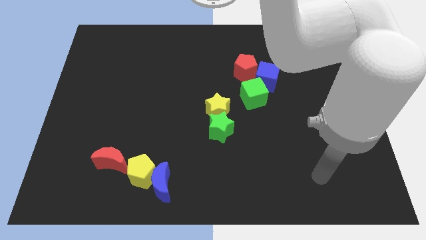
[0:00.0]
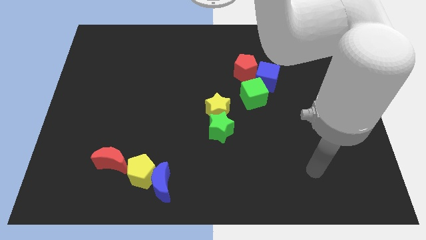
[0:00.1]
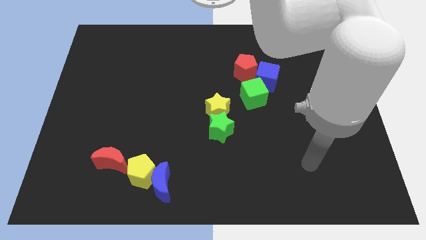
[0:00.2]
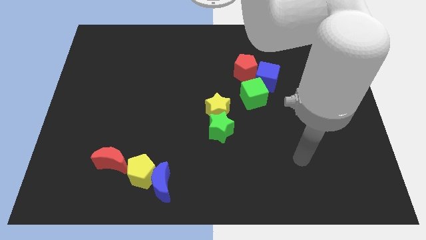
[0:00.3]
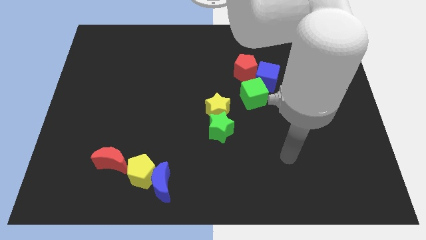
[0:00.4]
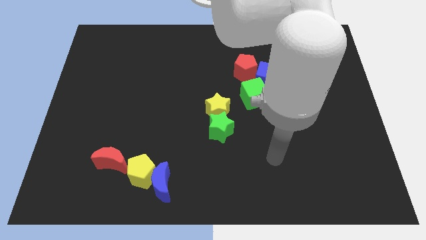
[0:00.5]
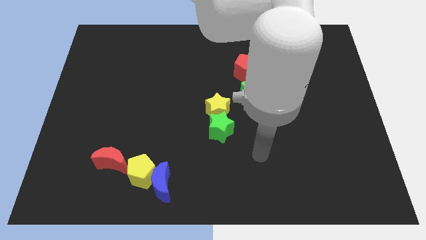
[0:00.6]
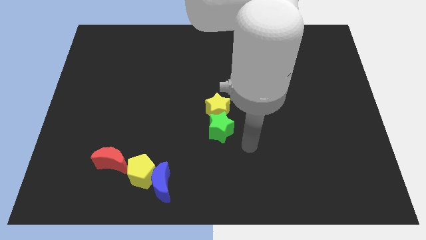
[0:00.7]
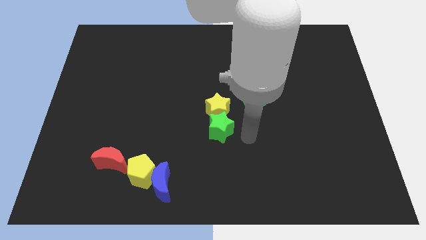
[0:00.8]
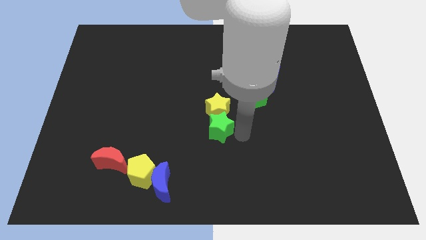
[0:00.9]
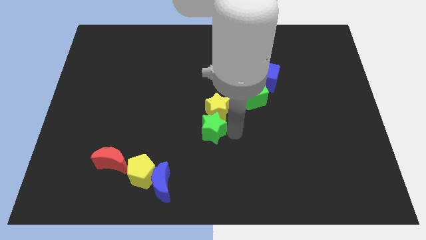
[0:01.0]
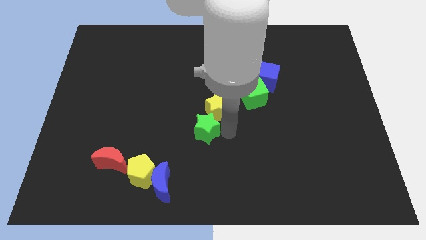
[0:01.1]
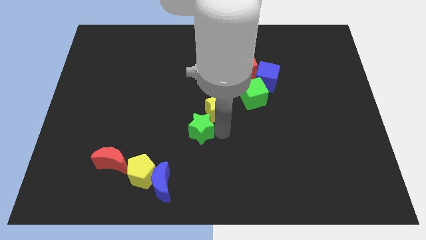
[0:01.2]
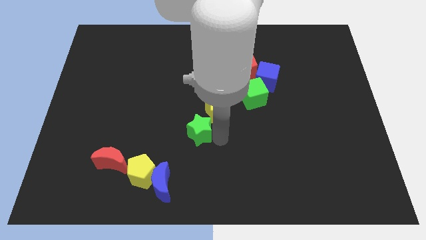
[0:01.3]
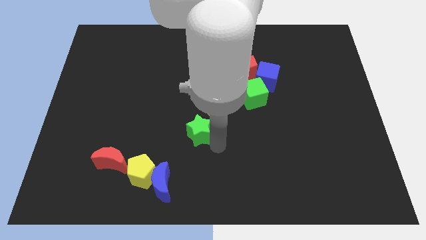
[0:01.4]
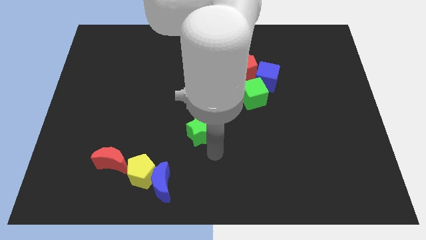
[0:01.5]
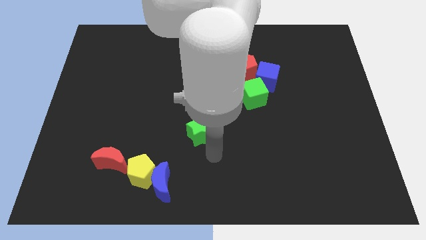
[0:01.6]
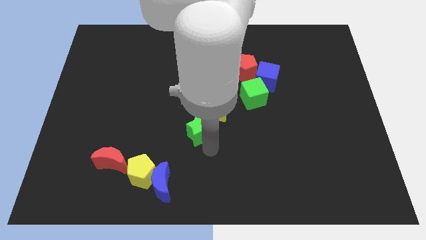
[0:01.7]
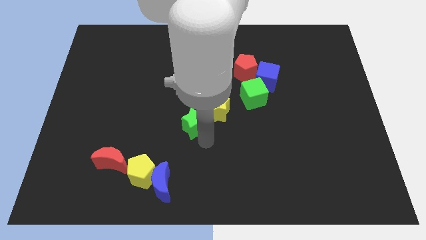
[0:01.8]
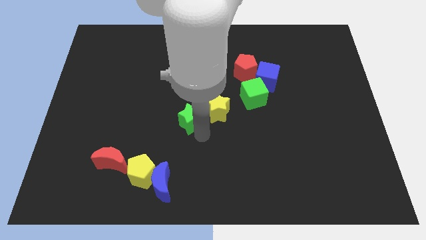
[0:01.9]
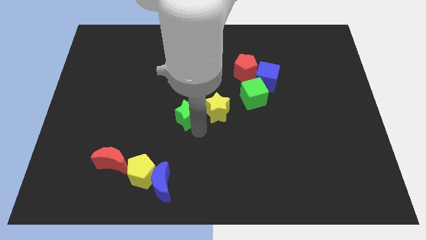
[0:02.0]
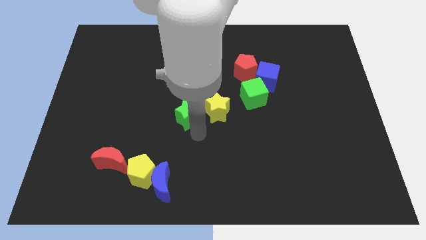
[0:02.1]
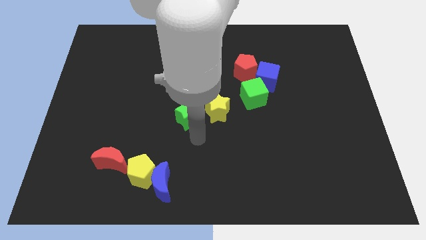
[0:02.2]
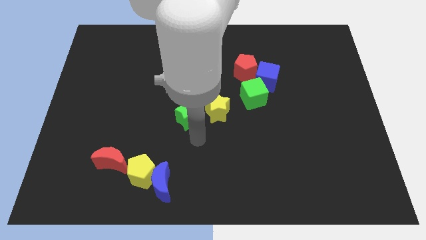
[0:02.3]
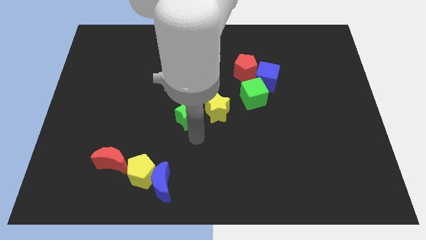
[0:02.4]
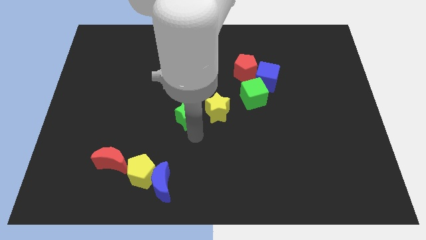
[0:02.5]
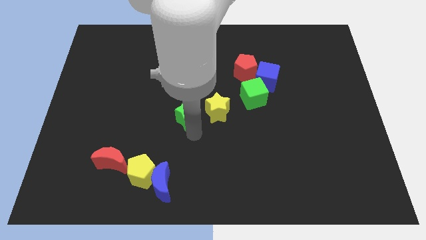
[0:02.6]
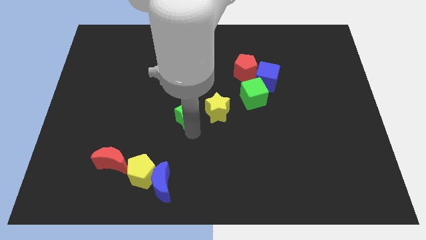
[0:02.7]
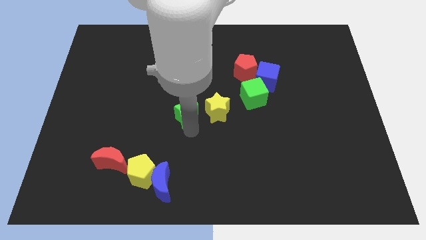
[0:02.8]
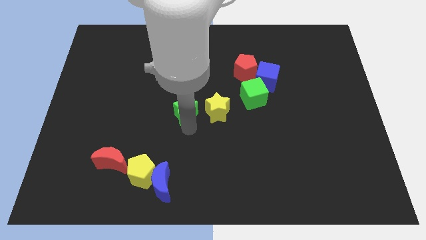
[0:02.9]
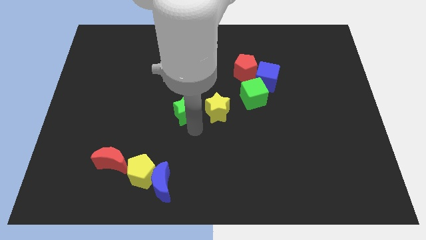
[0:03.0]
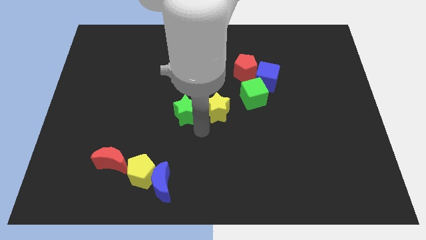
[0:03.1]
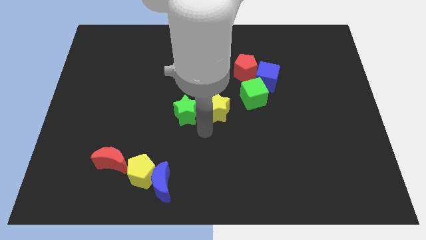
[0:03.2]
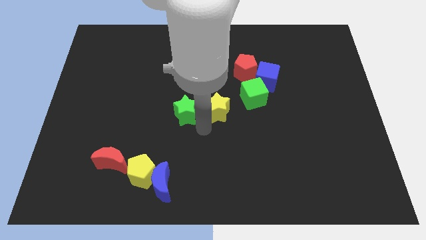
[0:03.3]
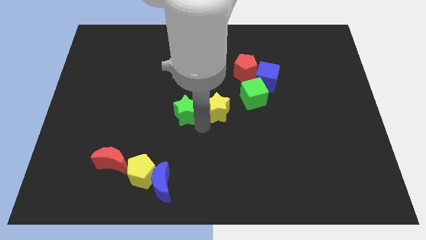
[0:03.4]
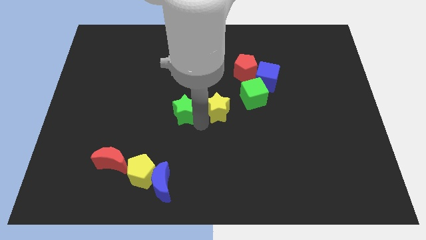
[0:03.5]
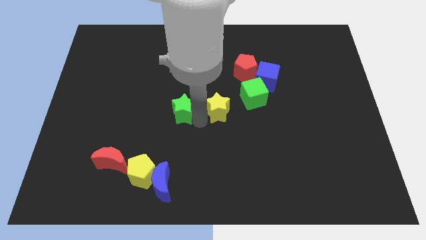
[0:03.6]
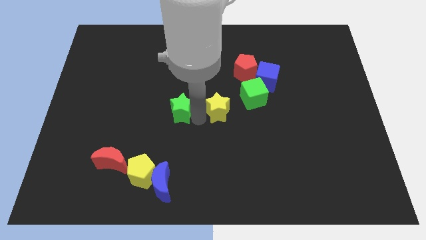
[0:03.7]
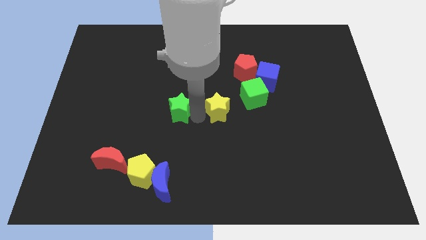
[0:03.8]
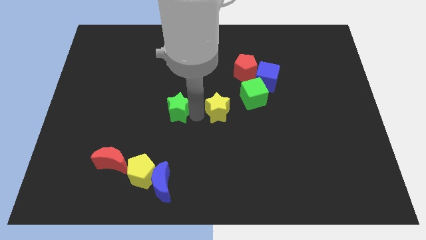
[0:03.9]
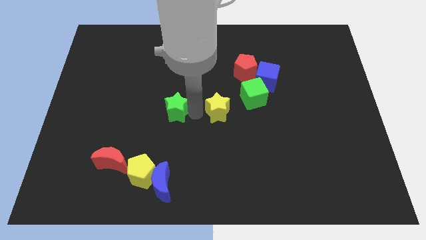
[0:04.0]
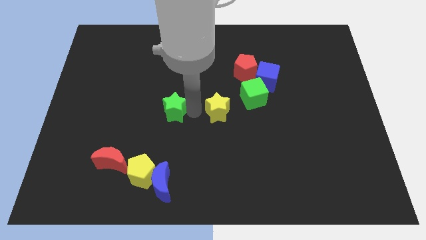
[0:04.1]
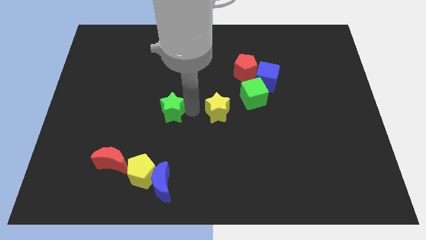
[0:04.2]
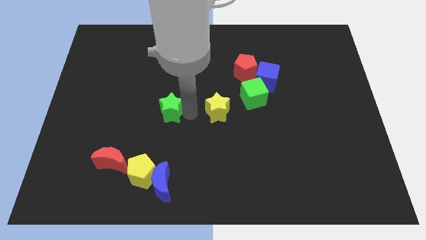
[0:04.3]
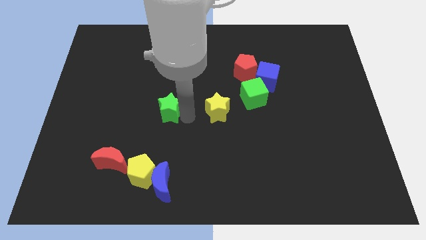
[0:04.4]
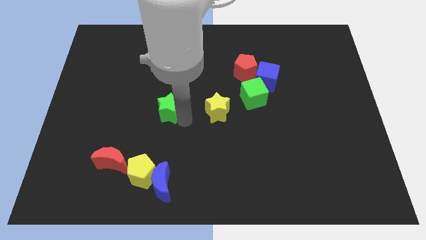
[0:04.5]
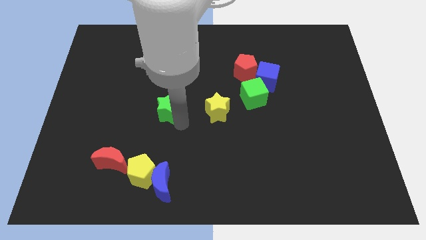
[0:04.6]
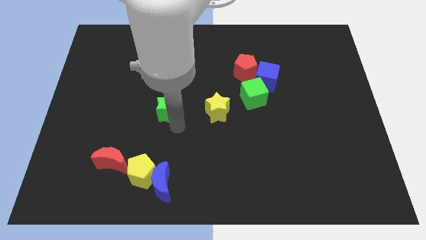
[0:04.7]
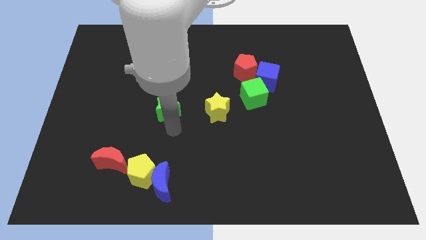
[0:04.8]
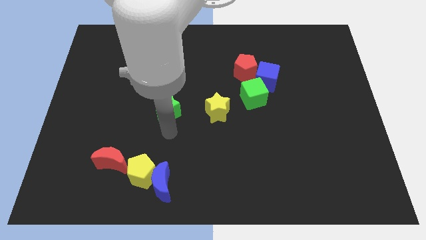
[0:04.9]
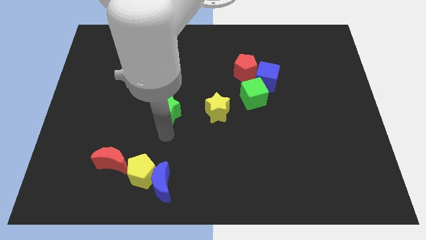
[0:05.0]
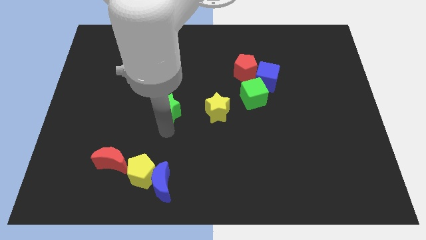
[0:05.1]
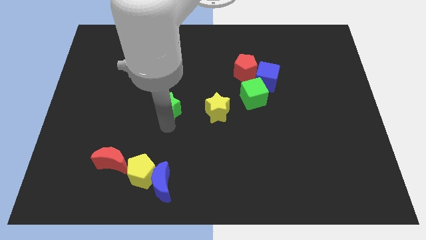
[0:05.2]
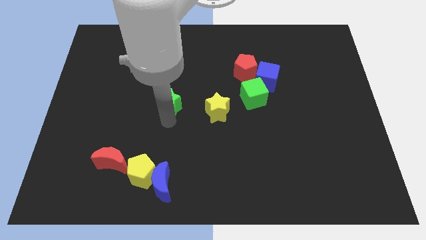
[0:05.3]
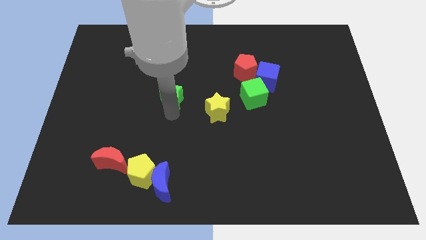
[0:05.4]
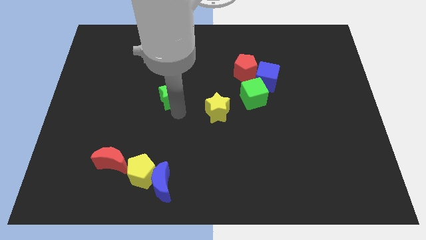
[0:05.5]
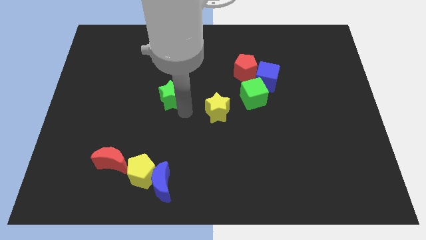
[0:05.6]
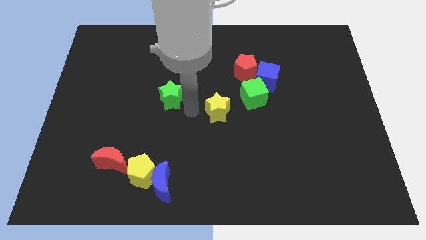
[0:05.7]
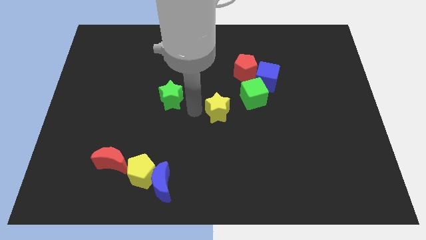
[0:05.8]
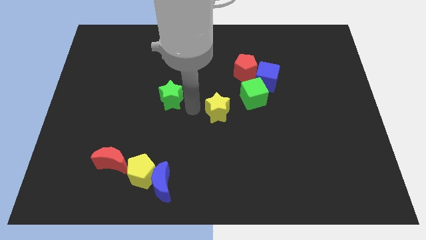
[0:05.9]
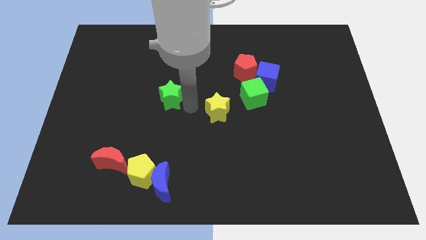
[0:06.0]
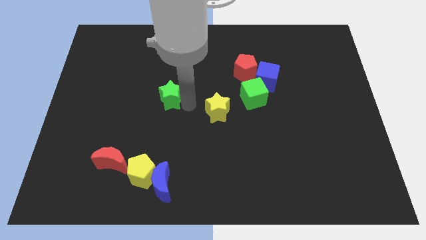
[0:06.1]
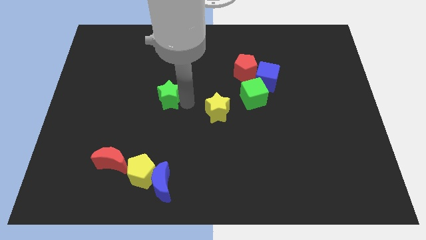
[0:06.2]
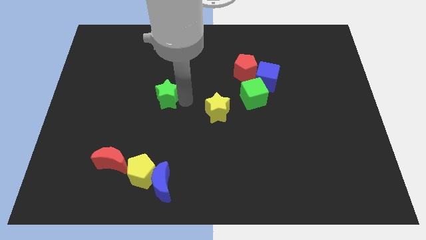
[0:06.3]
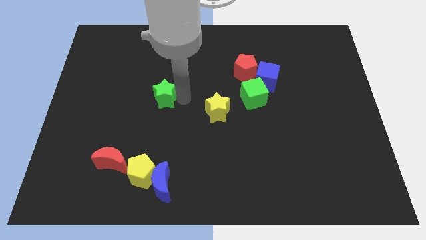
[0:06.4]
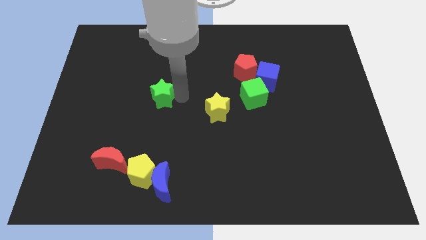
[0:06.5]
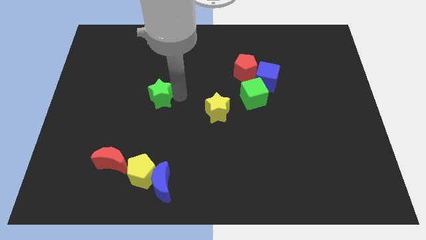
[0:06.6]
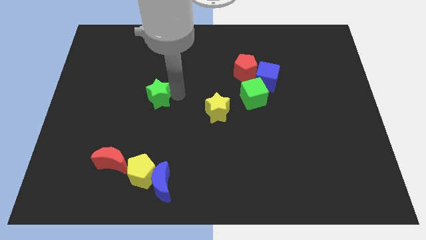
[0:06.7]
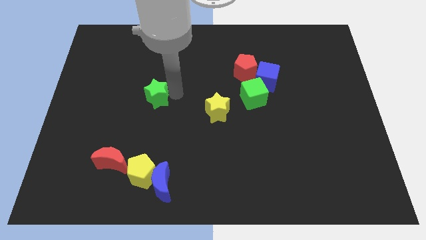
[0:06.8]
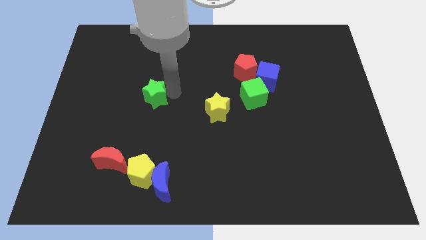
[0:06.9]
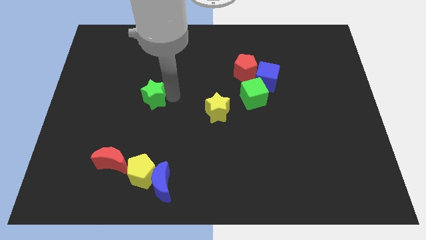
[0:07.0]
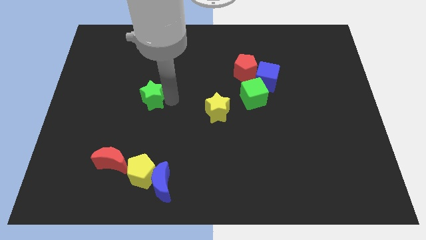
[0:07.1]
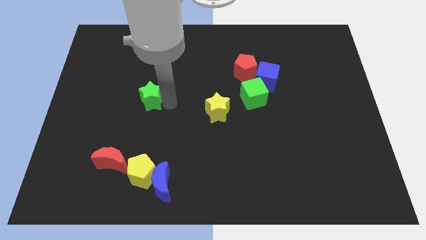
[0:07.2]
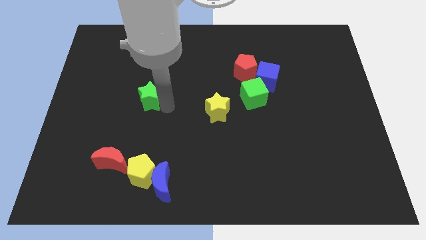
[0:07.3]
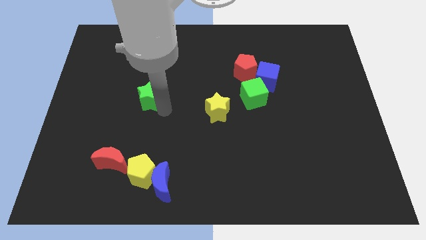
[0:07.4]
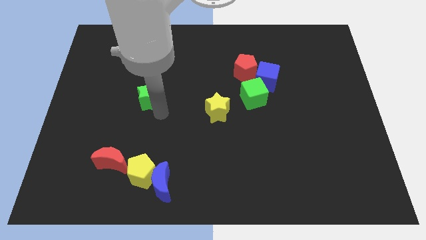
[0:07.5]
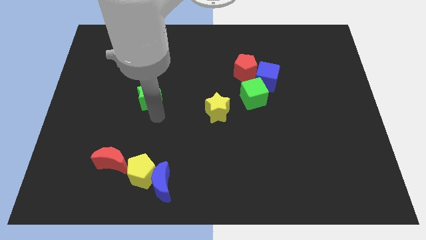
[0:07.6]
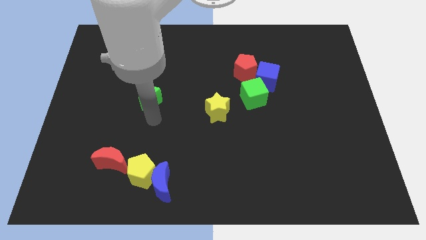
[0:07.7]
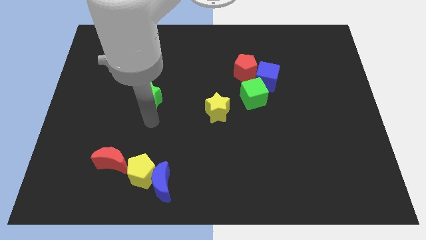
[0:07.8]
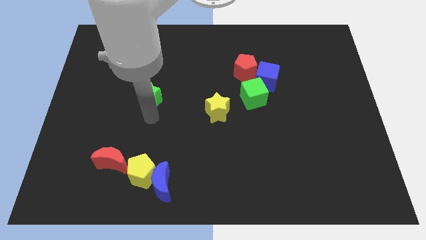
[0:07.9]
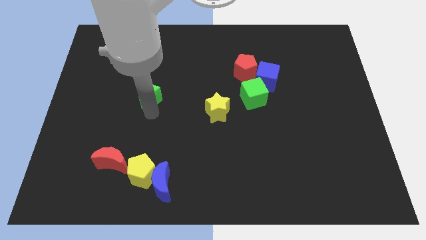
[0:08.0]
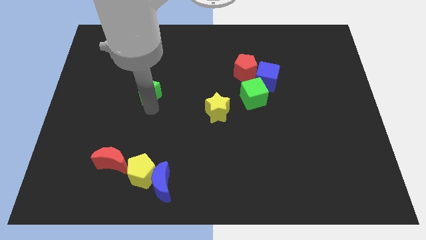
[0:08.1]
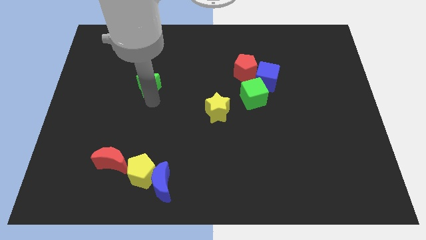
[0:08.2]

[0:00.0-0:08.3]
slide the green star upwards and then to the left
